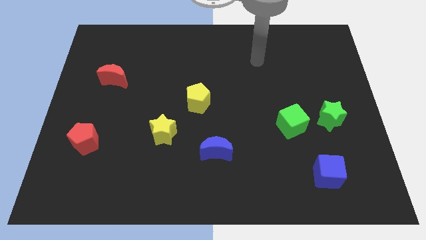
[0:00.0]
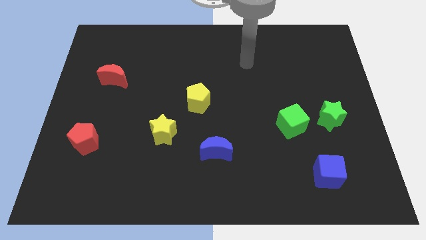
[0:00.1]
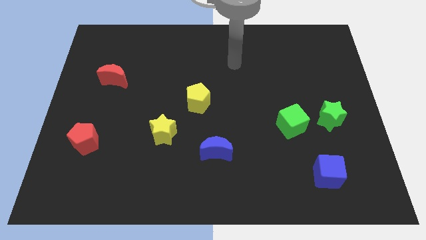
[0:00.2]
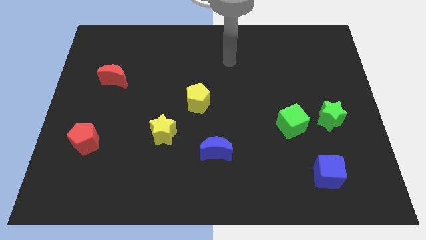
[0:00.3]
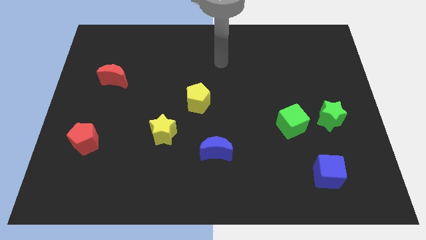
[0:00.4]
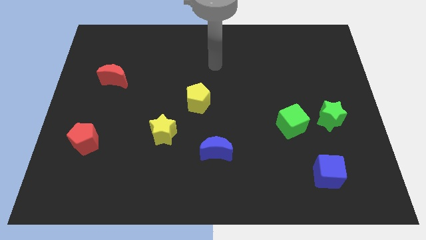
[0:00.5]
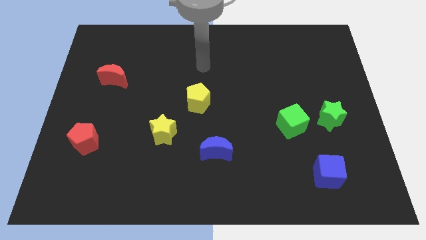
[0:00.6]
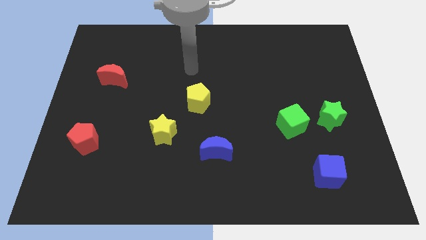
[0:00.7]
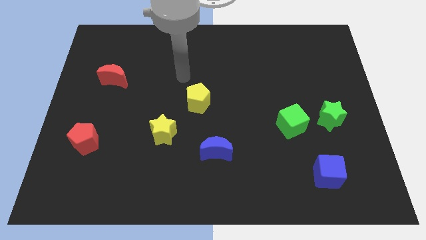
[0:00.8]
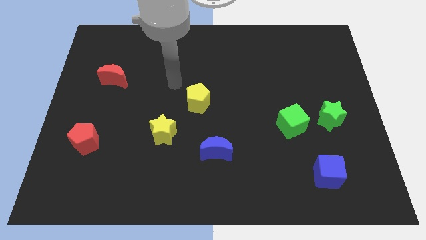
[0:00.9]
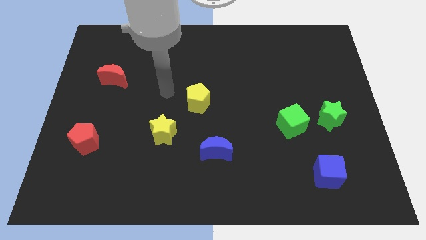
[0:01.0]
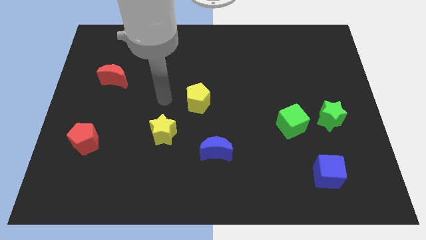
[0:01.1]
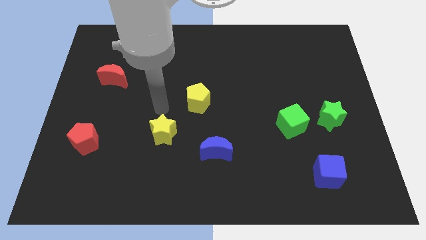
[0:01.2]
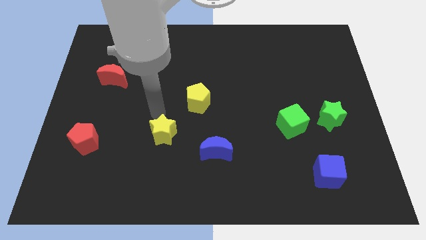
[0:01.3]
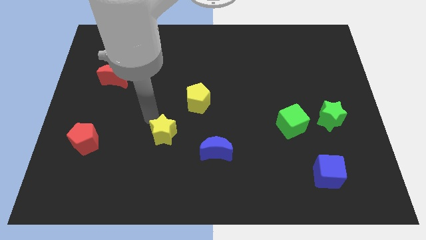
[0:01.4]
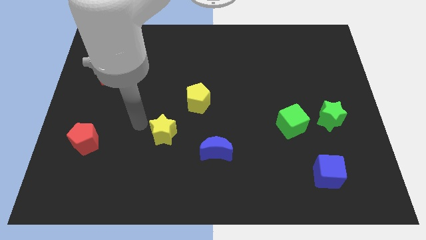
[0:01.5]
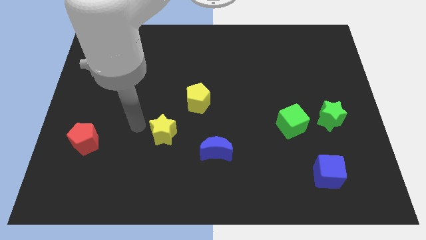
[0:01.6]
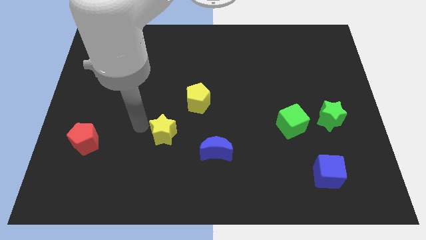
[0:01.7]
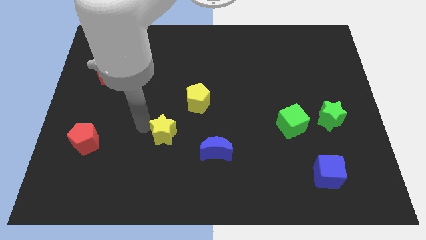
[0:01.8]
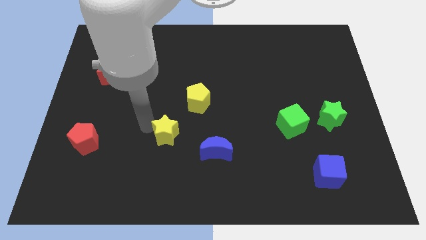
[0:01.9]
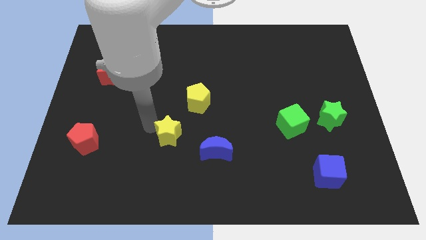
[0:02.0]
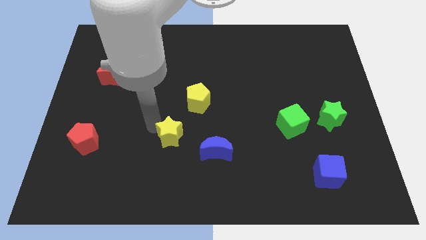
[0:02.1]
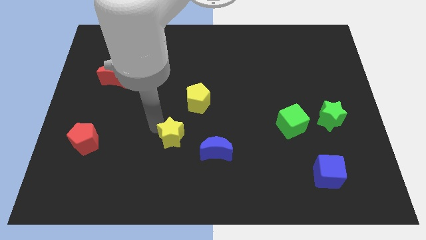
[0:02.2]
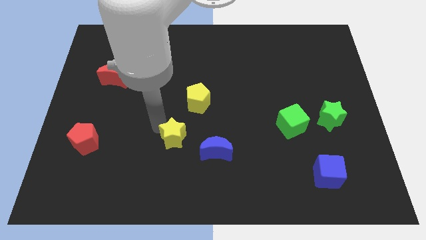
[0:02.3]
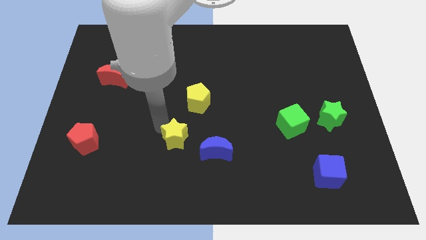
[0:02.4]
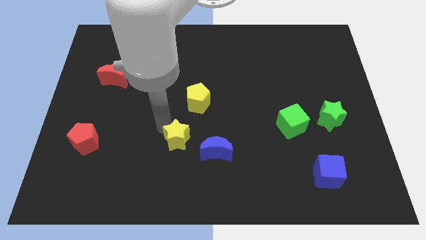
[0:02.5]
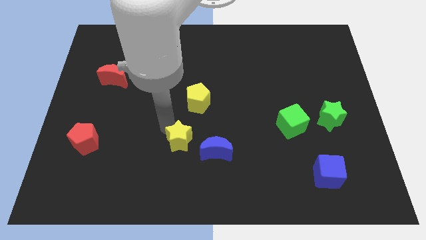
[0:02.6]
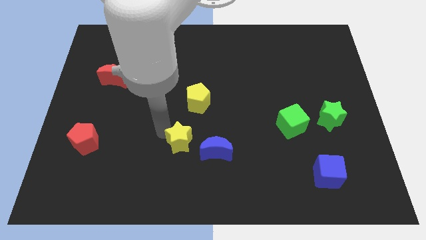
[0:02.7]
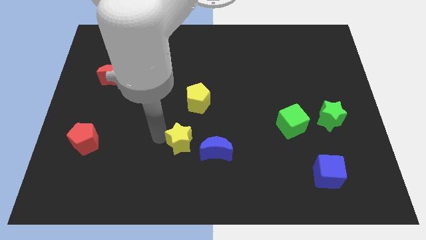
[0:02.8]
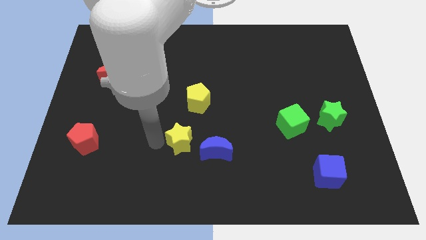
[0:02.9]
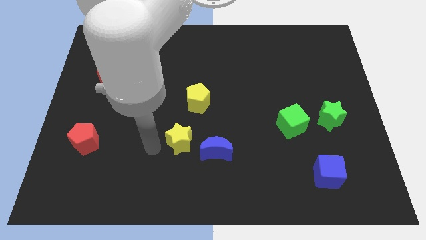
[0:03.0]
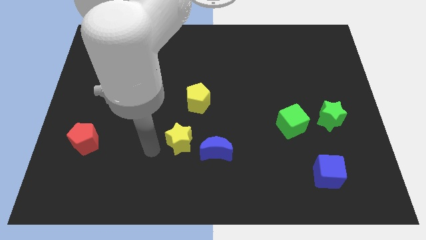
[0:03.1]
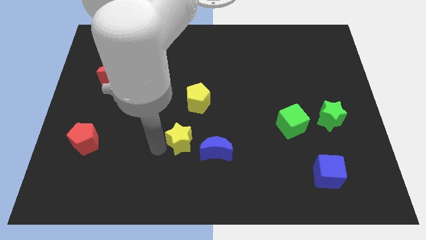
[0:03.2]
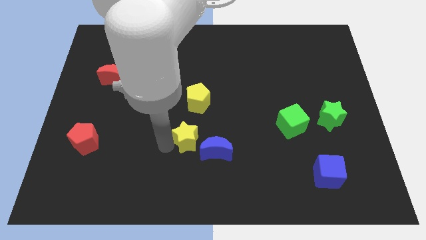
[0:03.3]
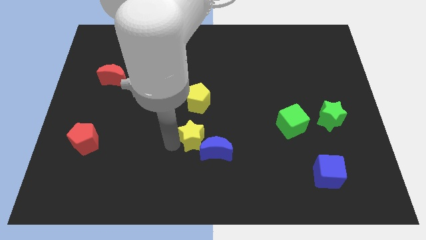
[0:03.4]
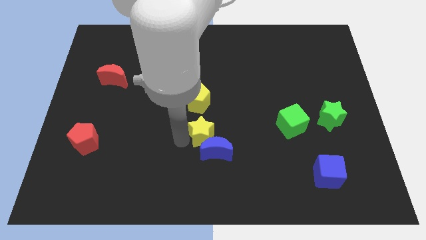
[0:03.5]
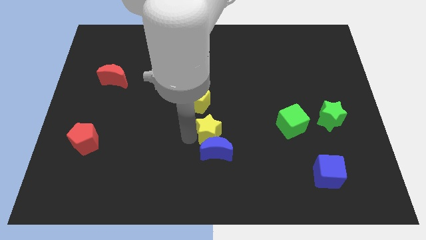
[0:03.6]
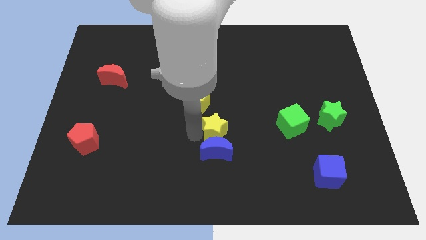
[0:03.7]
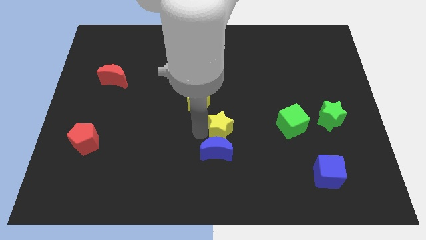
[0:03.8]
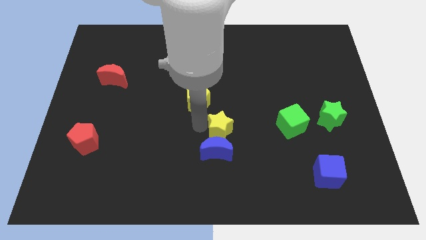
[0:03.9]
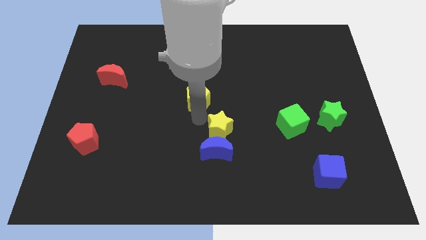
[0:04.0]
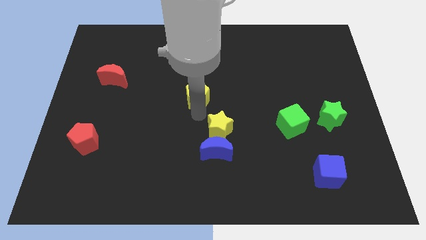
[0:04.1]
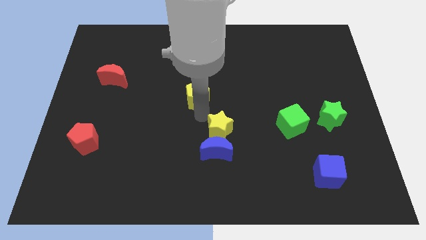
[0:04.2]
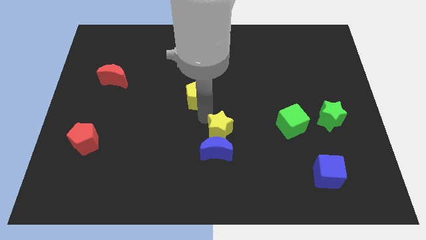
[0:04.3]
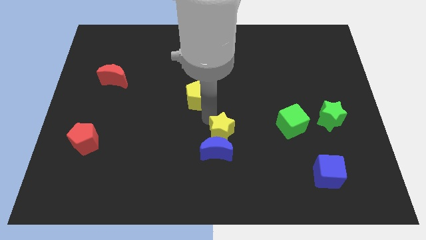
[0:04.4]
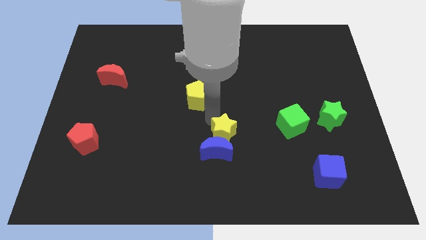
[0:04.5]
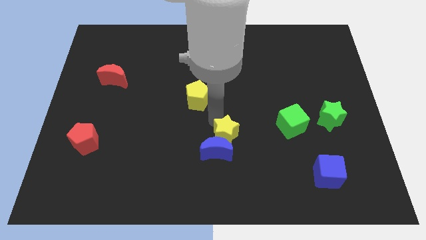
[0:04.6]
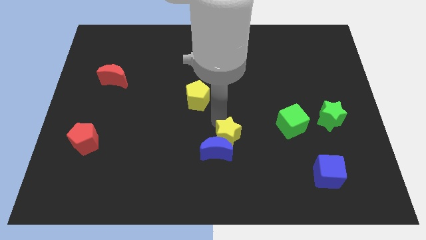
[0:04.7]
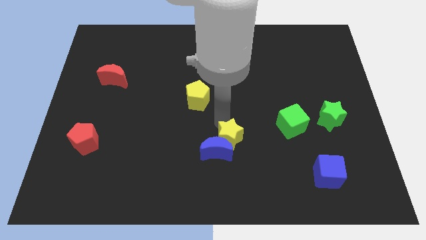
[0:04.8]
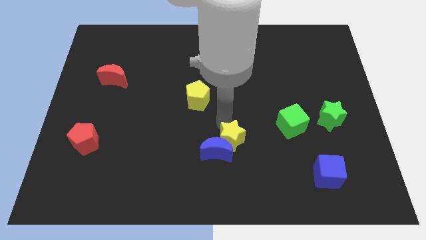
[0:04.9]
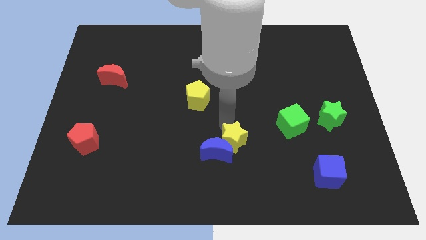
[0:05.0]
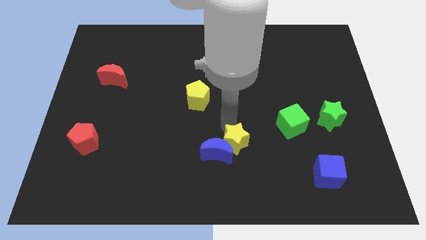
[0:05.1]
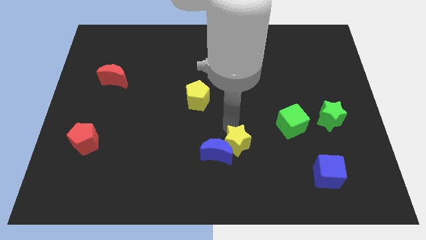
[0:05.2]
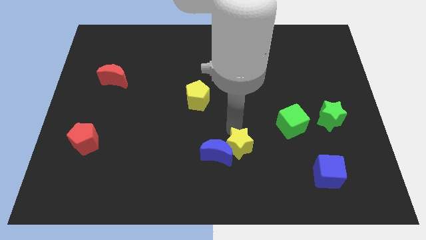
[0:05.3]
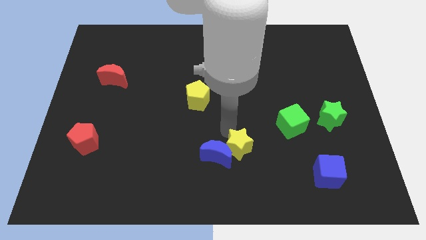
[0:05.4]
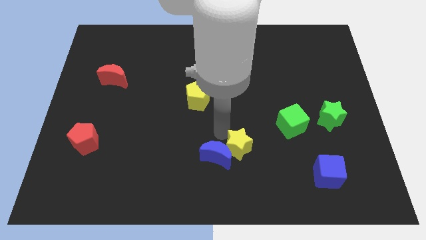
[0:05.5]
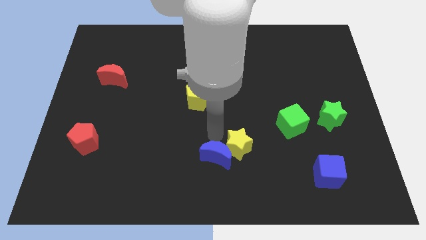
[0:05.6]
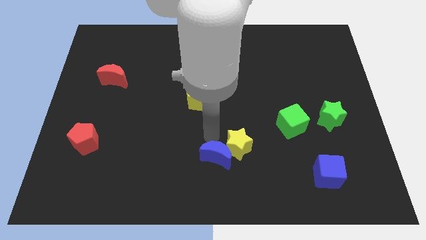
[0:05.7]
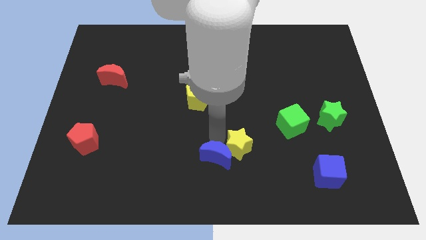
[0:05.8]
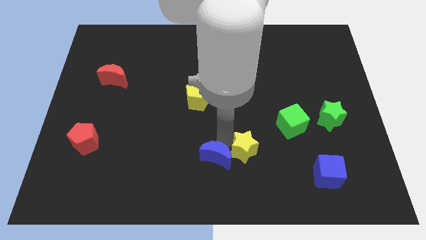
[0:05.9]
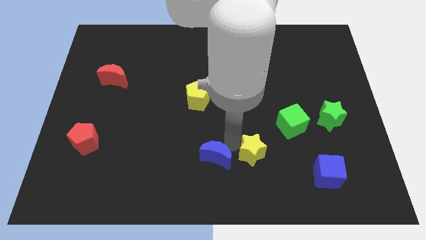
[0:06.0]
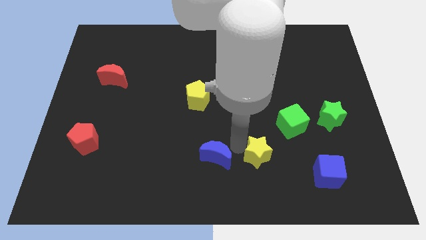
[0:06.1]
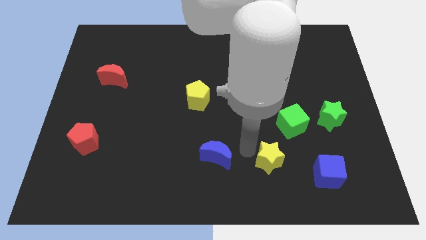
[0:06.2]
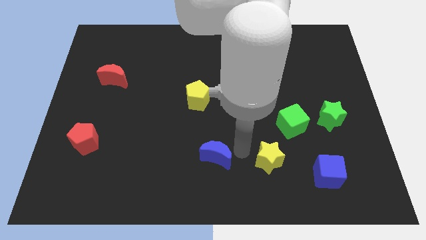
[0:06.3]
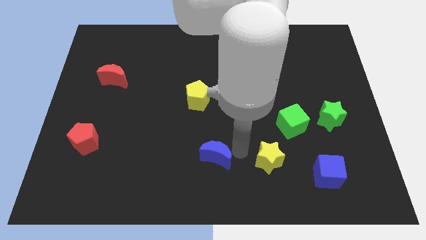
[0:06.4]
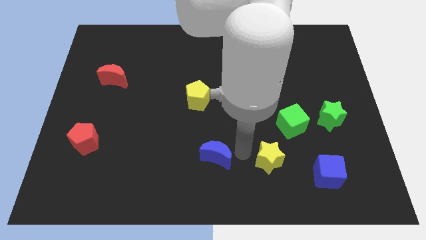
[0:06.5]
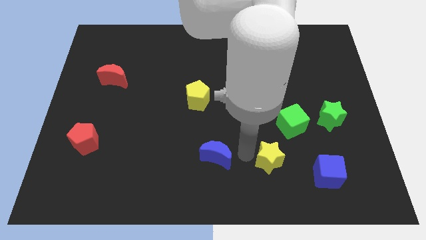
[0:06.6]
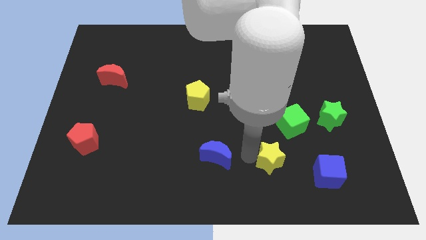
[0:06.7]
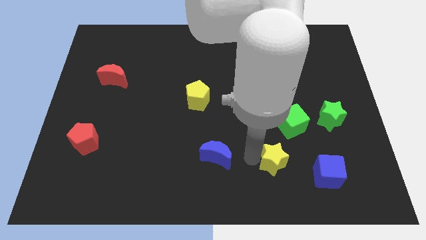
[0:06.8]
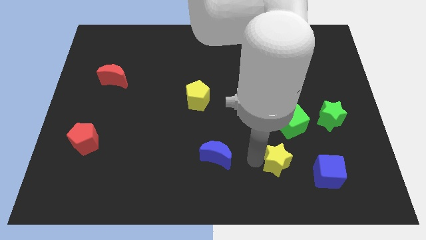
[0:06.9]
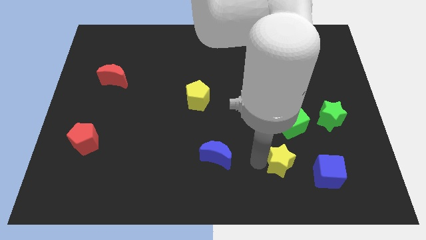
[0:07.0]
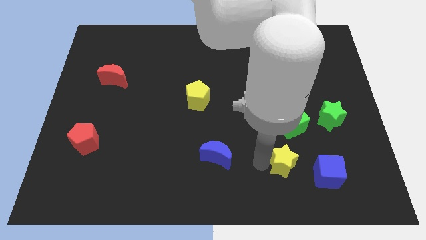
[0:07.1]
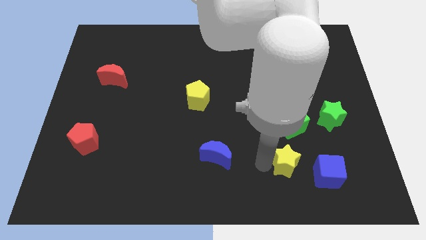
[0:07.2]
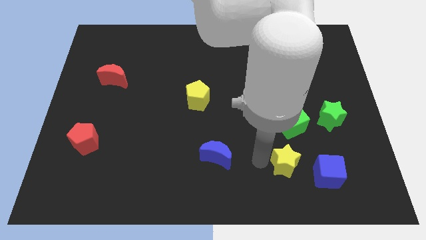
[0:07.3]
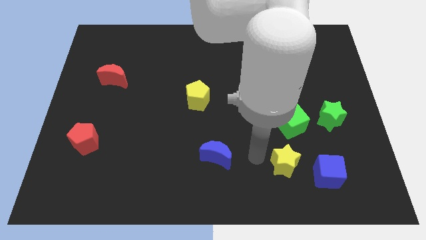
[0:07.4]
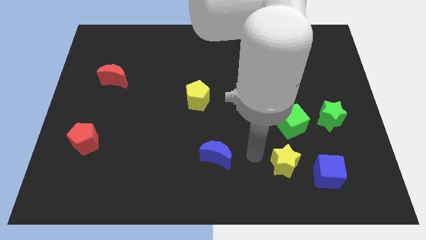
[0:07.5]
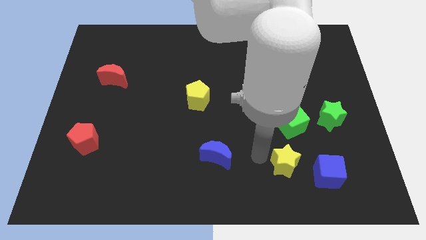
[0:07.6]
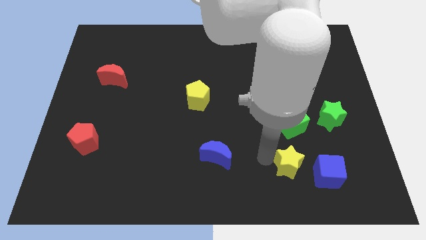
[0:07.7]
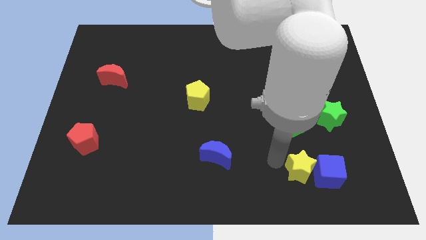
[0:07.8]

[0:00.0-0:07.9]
put the yellow star towards the blue cube
